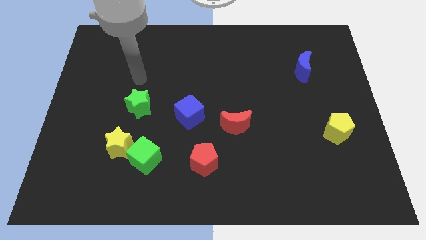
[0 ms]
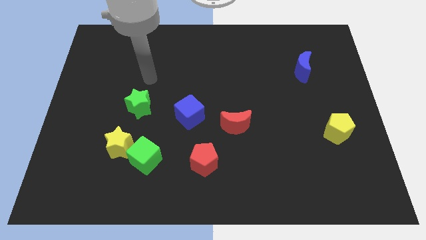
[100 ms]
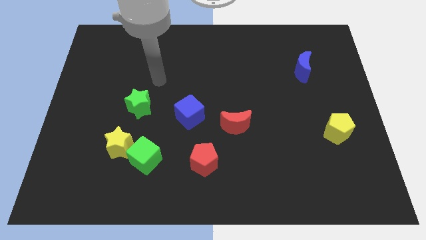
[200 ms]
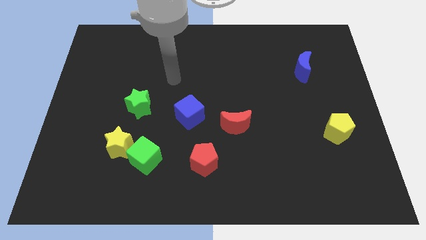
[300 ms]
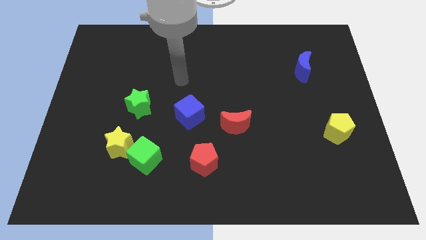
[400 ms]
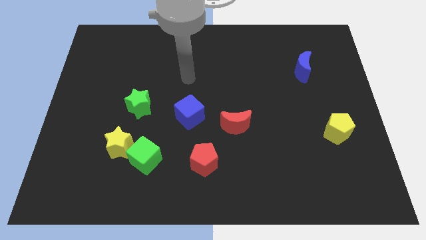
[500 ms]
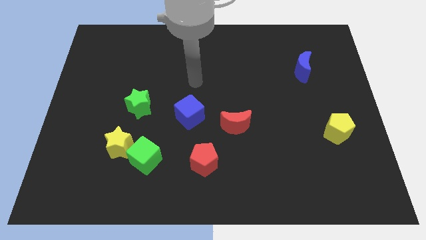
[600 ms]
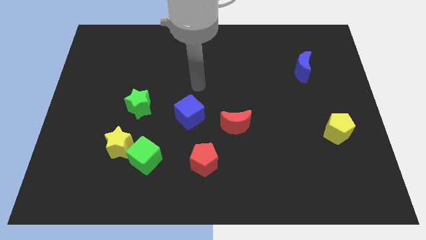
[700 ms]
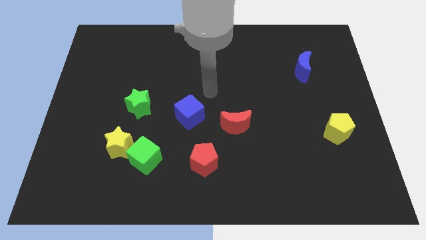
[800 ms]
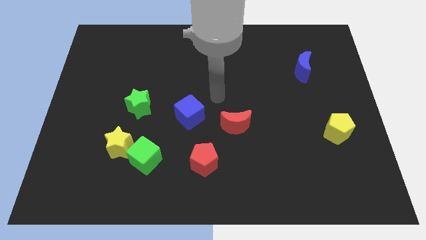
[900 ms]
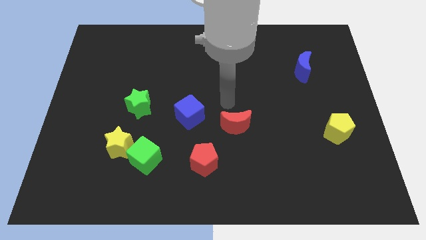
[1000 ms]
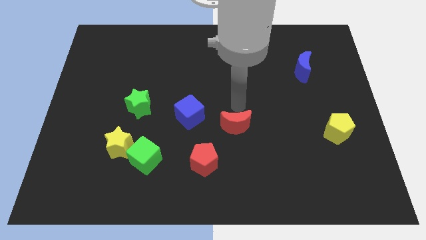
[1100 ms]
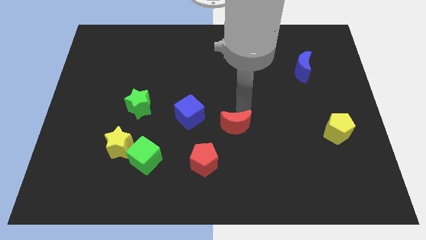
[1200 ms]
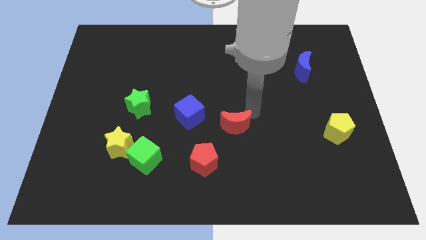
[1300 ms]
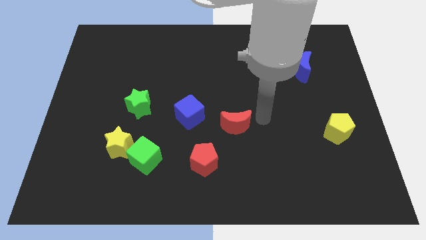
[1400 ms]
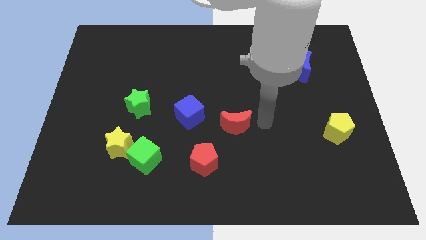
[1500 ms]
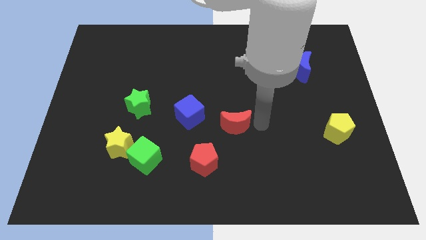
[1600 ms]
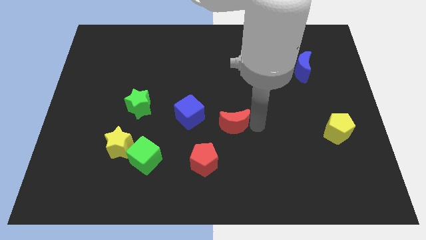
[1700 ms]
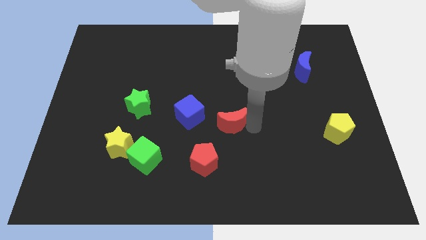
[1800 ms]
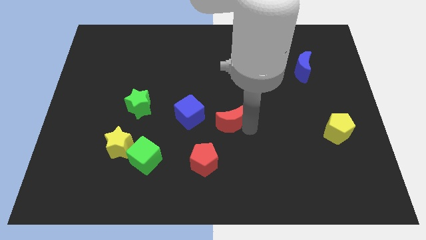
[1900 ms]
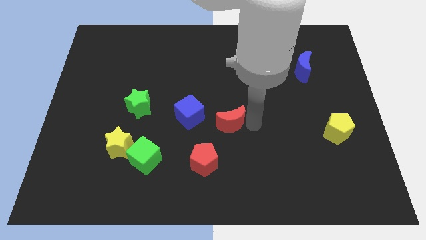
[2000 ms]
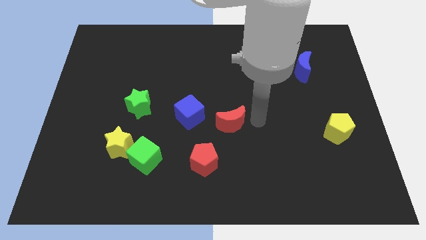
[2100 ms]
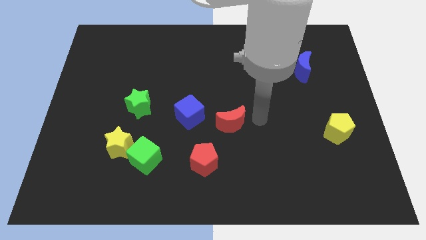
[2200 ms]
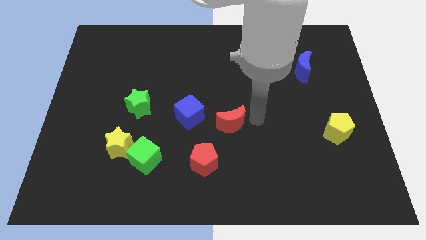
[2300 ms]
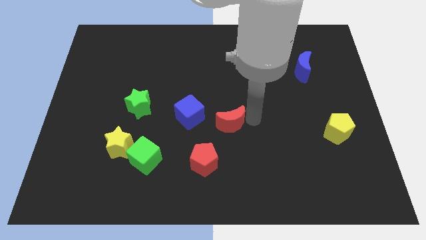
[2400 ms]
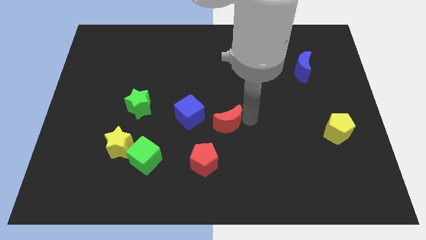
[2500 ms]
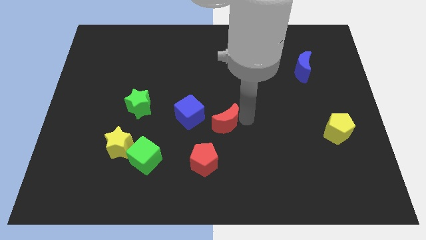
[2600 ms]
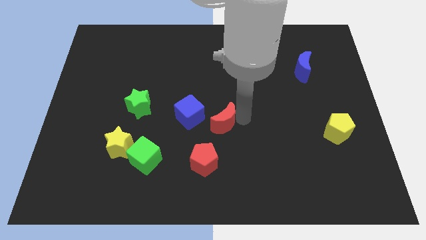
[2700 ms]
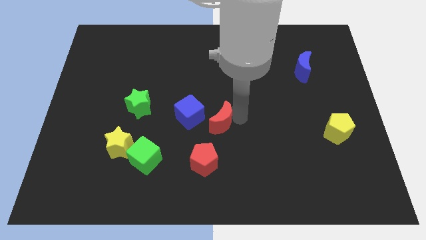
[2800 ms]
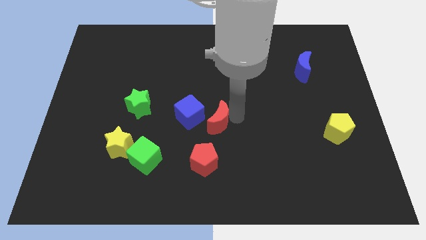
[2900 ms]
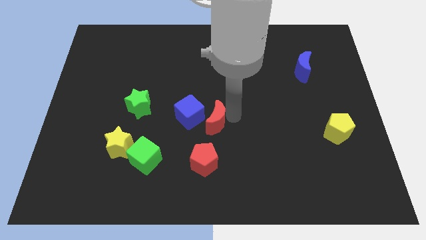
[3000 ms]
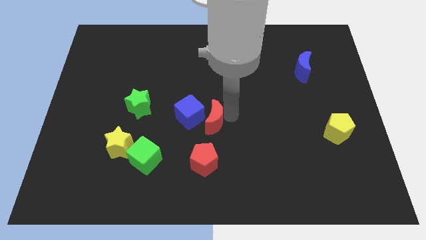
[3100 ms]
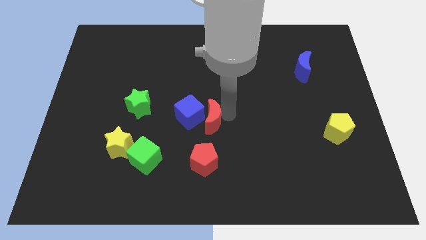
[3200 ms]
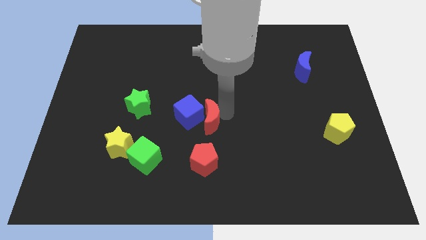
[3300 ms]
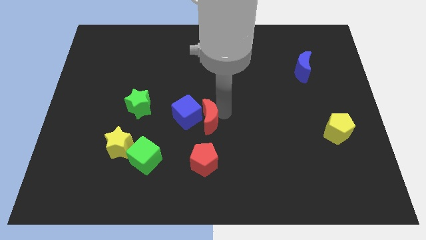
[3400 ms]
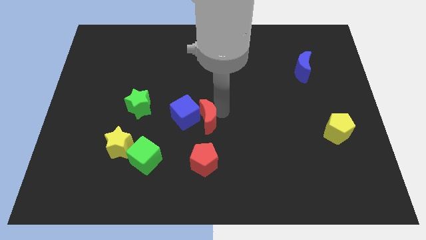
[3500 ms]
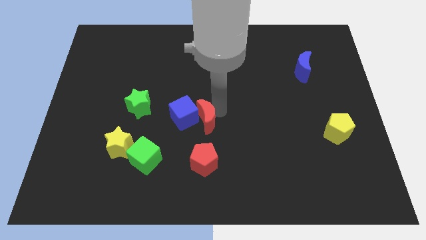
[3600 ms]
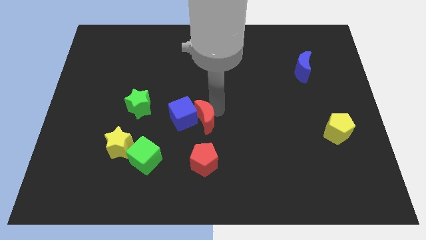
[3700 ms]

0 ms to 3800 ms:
push the red moon to the left slightly

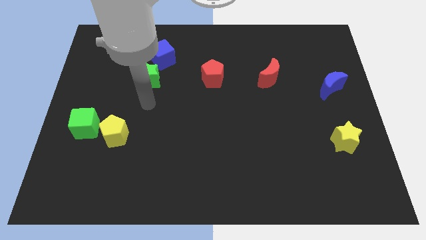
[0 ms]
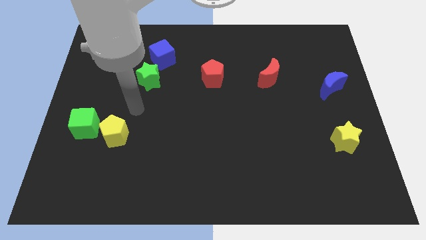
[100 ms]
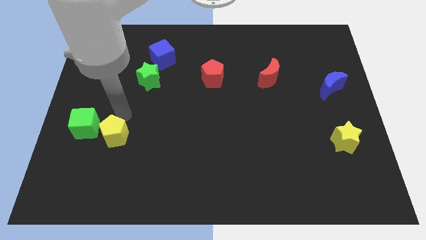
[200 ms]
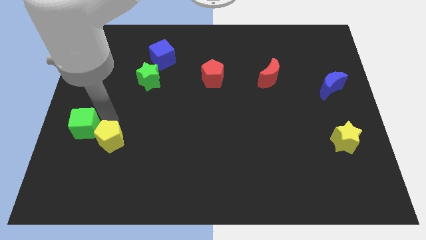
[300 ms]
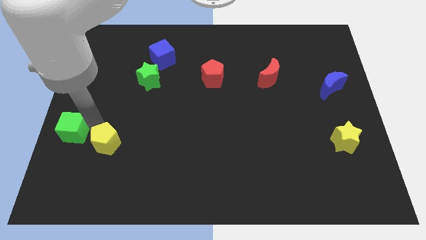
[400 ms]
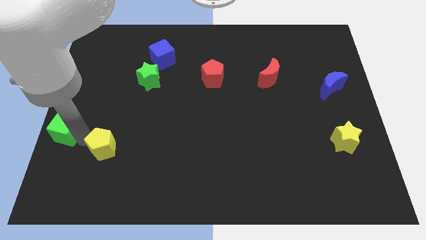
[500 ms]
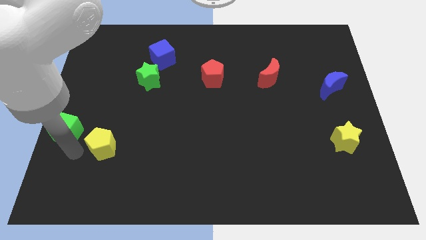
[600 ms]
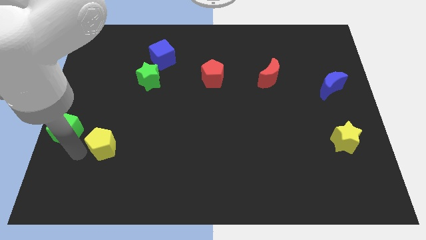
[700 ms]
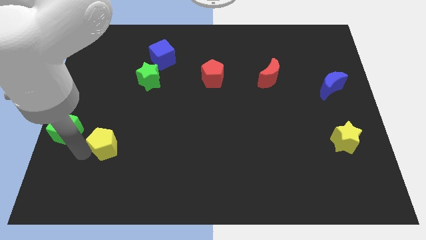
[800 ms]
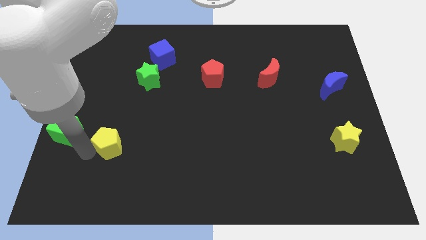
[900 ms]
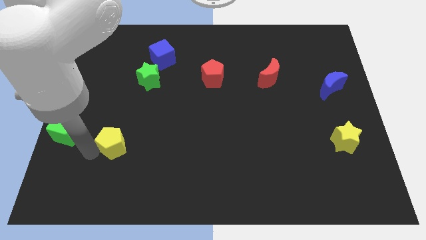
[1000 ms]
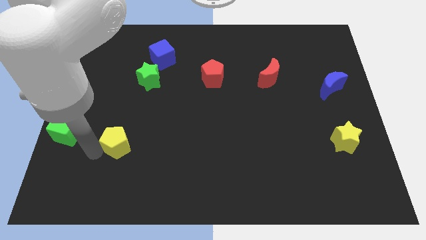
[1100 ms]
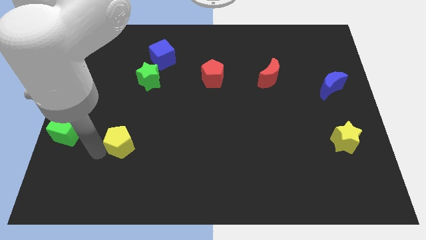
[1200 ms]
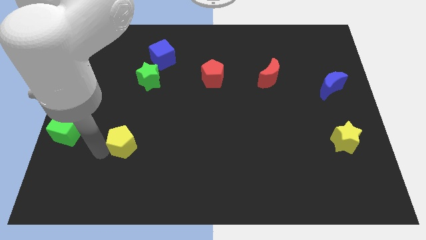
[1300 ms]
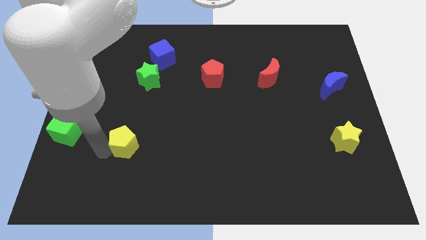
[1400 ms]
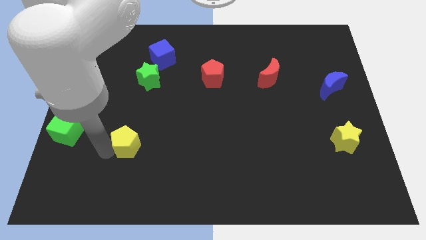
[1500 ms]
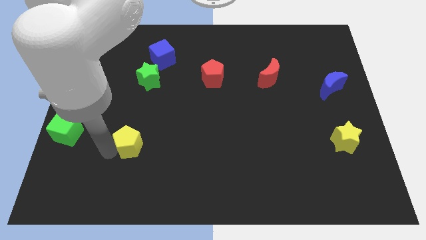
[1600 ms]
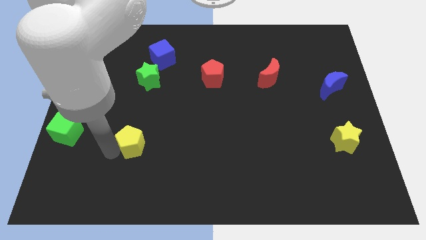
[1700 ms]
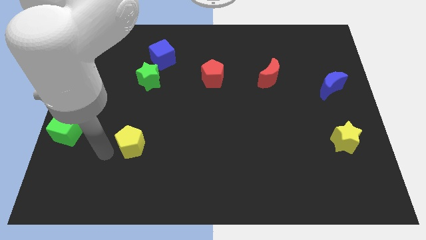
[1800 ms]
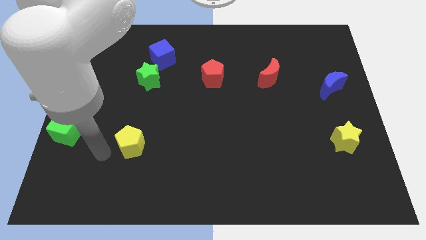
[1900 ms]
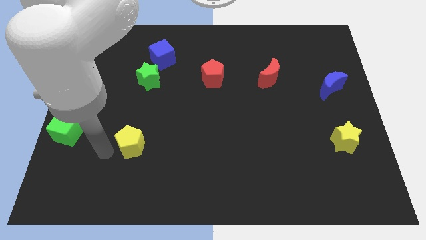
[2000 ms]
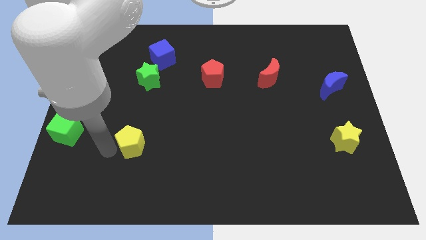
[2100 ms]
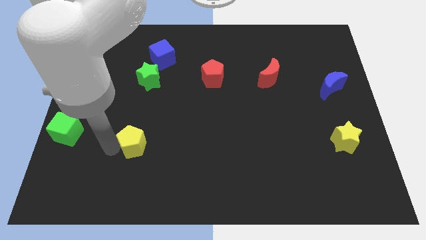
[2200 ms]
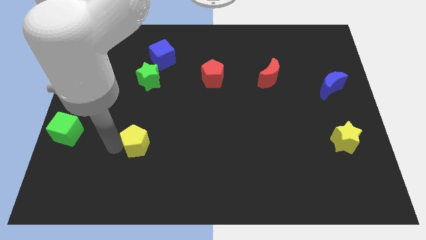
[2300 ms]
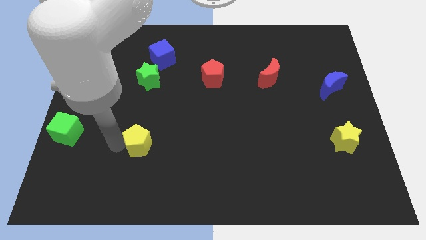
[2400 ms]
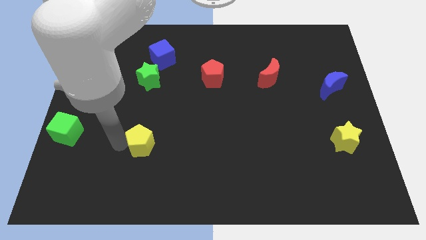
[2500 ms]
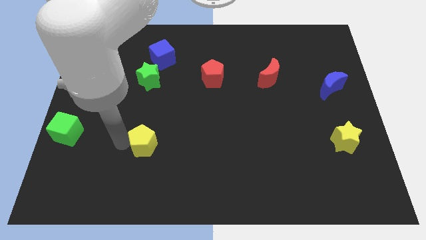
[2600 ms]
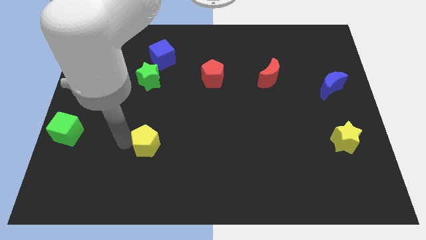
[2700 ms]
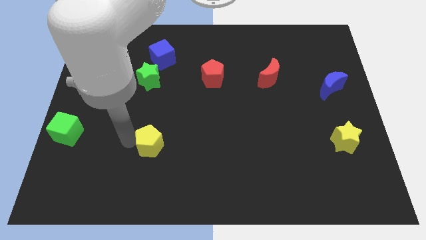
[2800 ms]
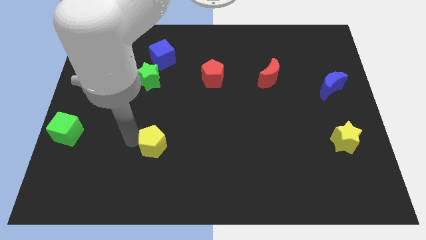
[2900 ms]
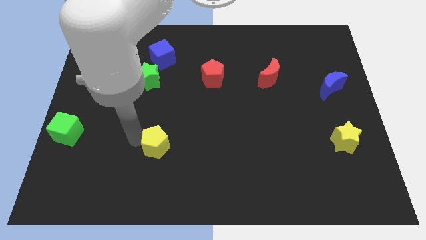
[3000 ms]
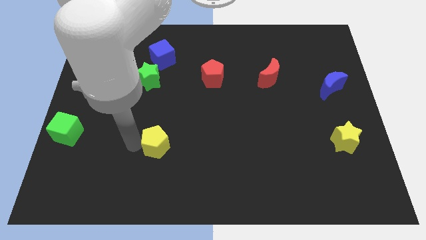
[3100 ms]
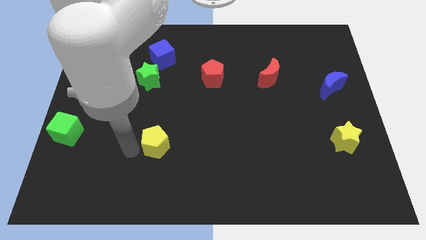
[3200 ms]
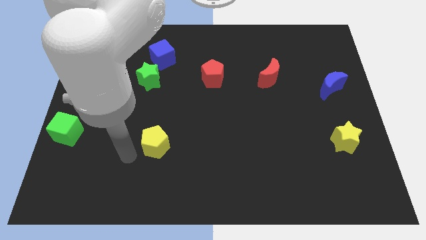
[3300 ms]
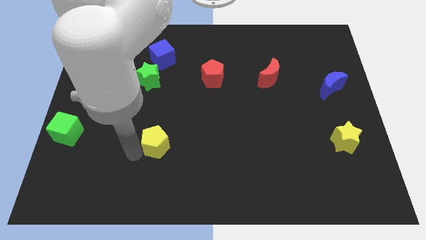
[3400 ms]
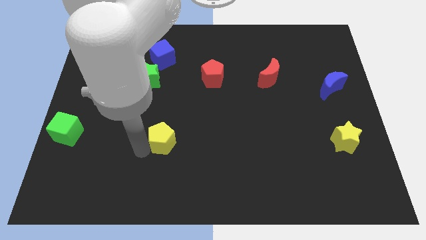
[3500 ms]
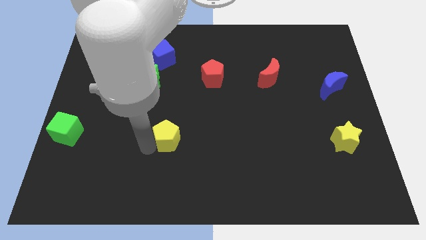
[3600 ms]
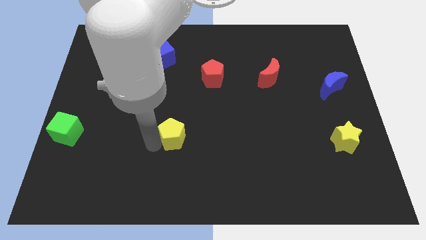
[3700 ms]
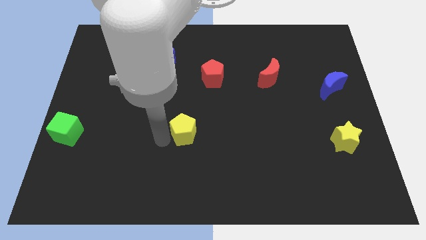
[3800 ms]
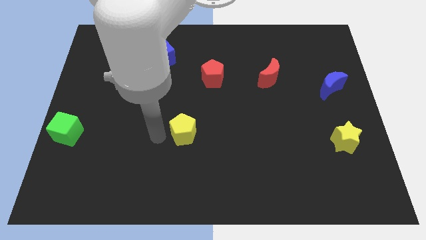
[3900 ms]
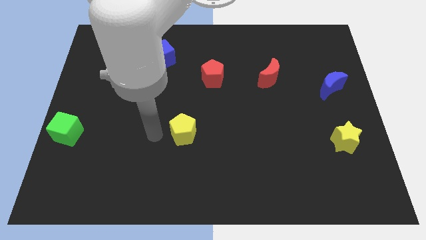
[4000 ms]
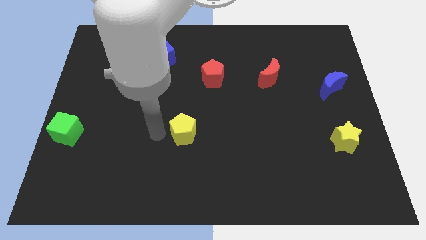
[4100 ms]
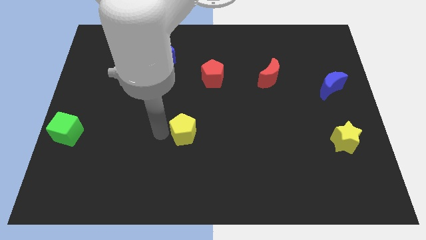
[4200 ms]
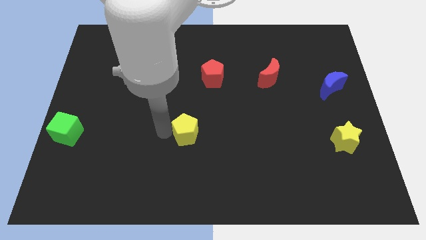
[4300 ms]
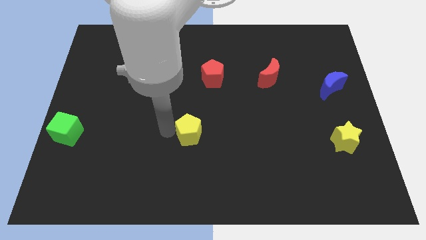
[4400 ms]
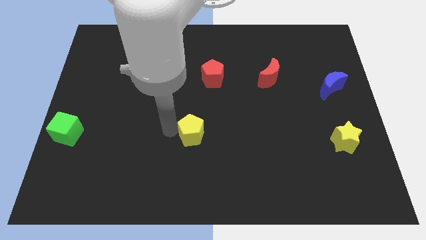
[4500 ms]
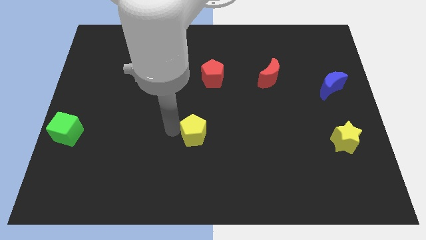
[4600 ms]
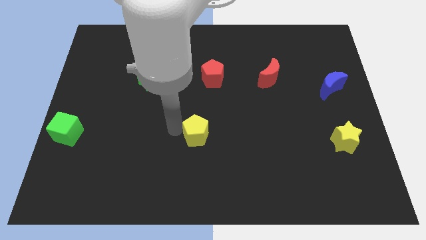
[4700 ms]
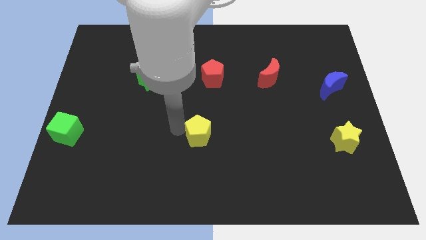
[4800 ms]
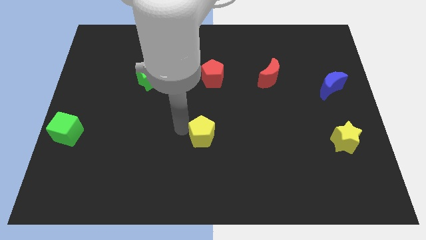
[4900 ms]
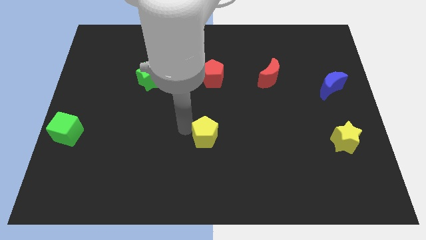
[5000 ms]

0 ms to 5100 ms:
push the yellow pentagon right
